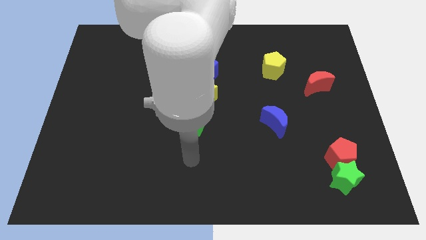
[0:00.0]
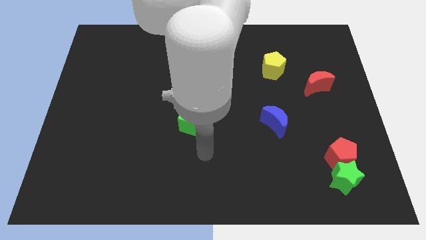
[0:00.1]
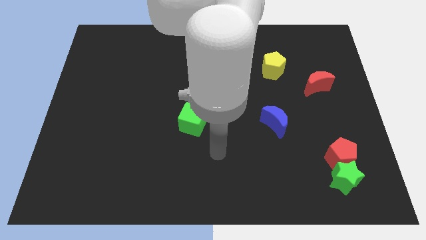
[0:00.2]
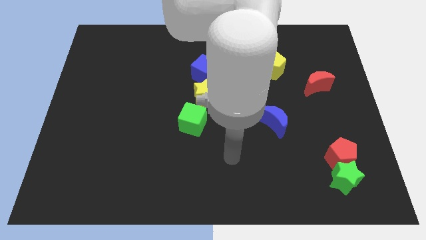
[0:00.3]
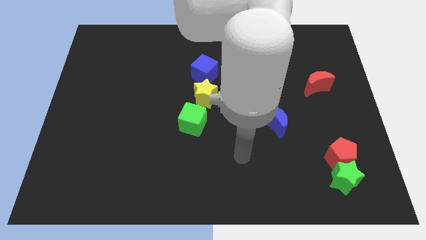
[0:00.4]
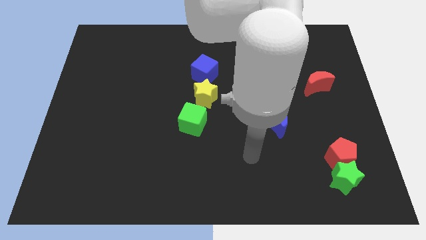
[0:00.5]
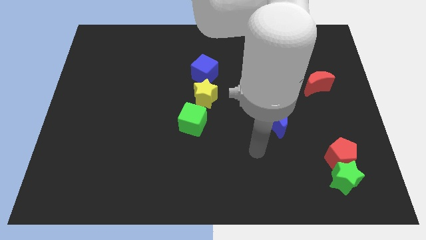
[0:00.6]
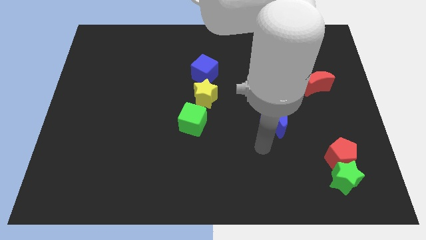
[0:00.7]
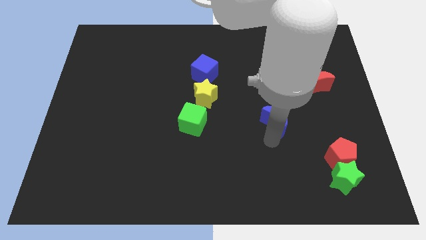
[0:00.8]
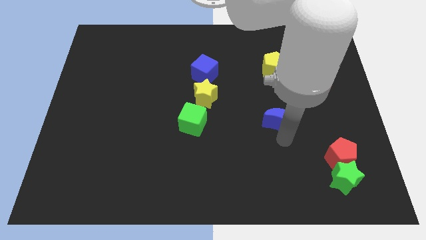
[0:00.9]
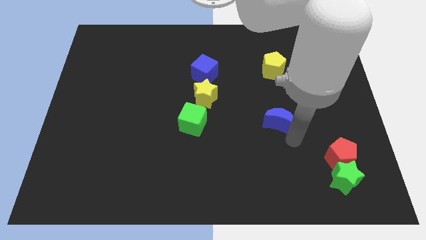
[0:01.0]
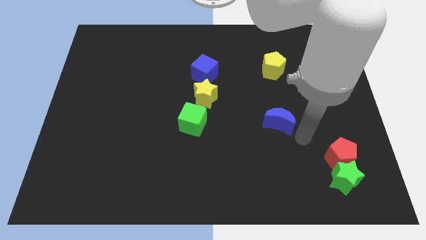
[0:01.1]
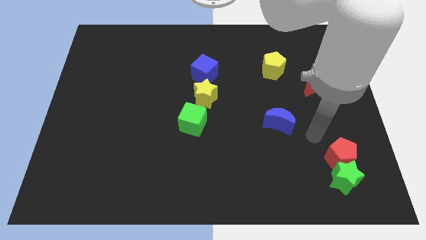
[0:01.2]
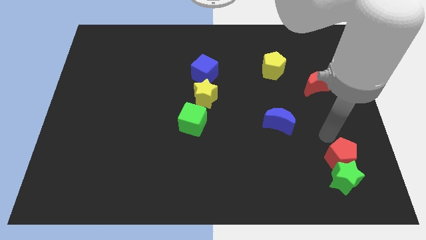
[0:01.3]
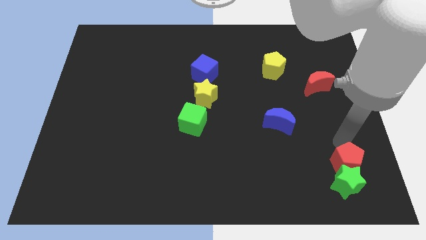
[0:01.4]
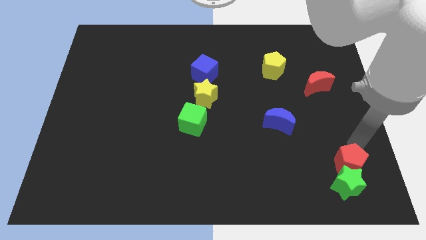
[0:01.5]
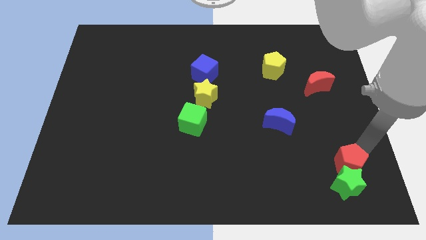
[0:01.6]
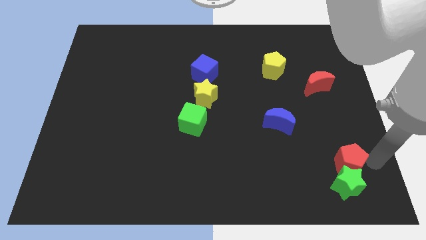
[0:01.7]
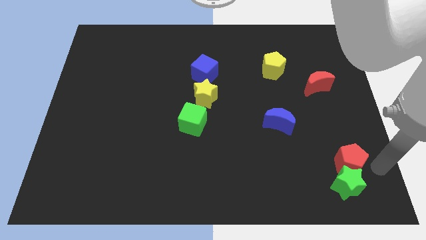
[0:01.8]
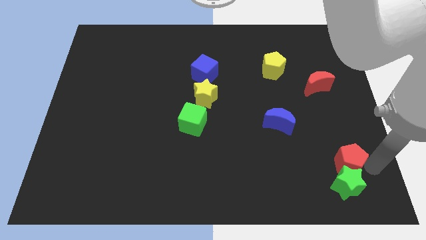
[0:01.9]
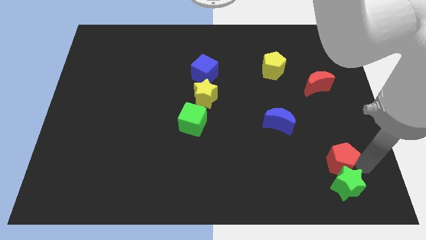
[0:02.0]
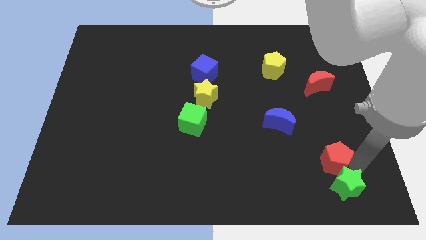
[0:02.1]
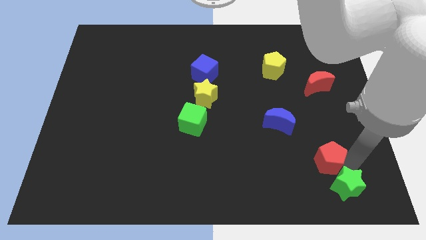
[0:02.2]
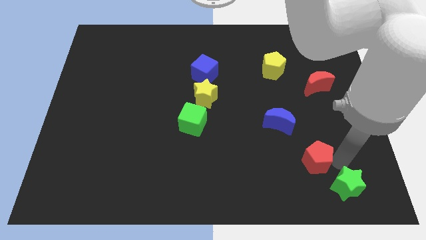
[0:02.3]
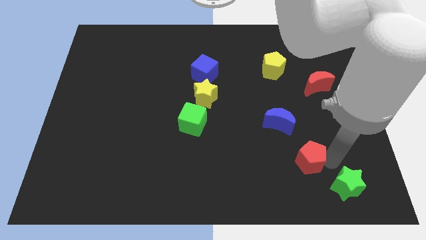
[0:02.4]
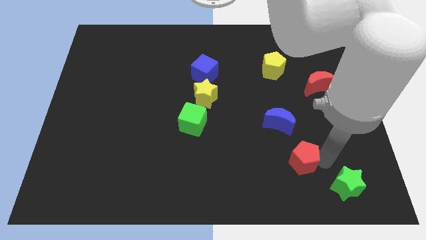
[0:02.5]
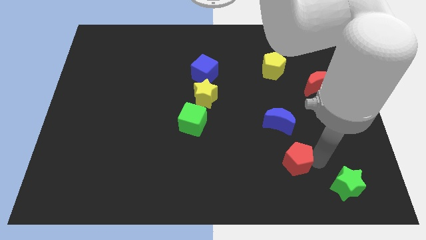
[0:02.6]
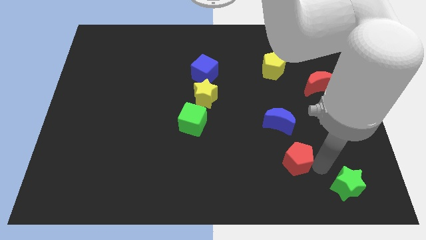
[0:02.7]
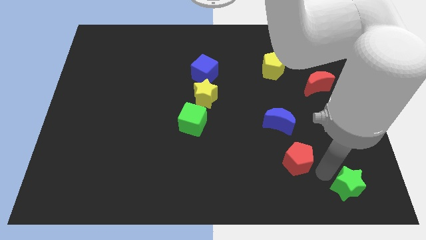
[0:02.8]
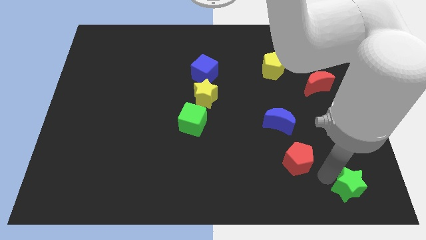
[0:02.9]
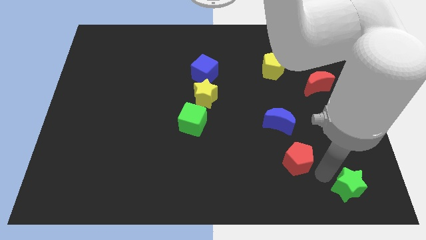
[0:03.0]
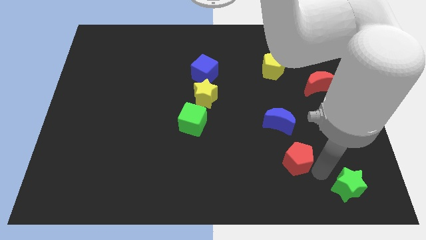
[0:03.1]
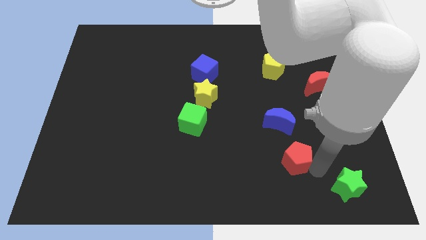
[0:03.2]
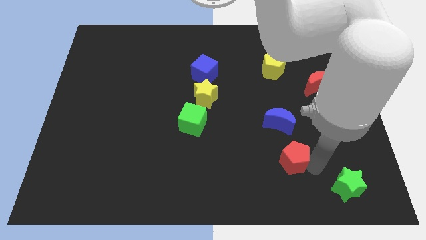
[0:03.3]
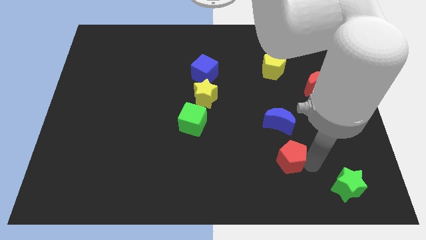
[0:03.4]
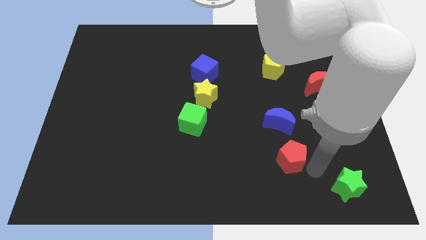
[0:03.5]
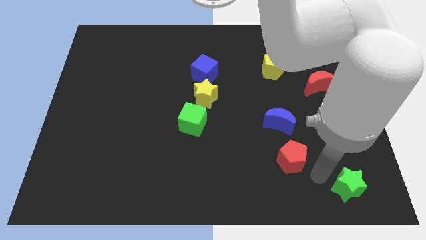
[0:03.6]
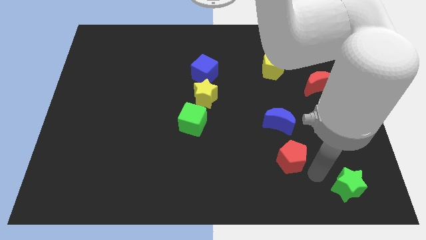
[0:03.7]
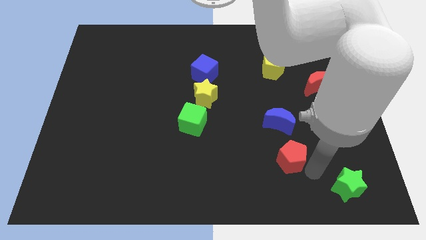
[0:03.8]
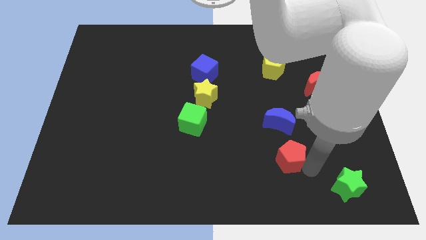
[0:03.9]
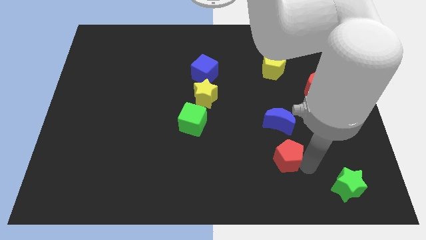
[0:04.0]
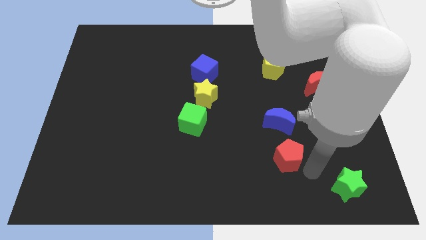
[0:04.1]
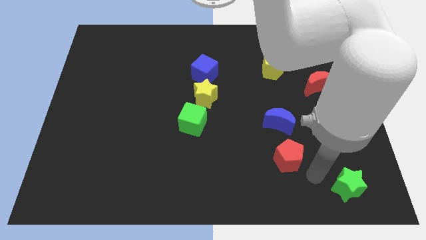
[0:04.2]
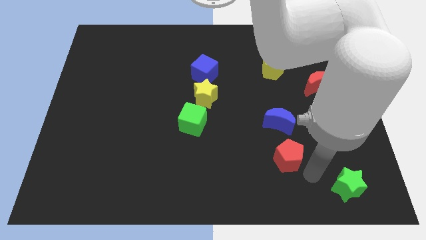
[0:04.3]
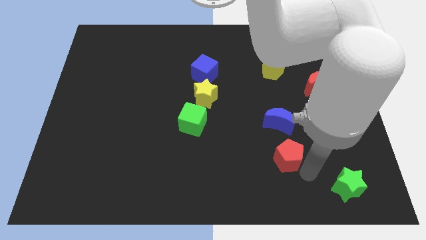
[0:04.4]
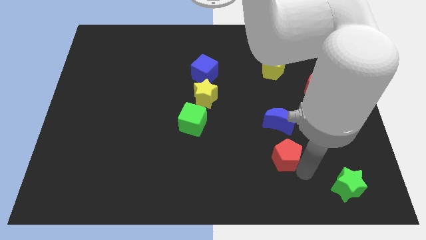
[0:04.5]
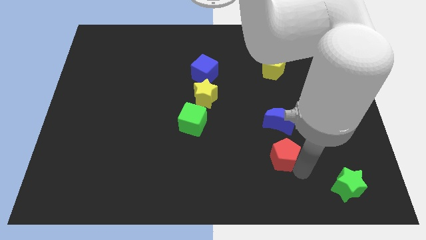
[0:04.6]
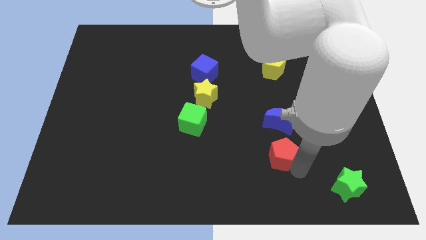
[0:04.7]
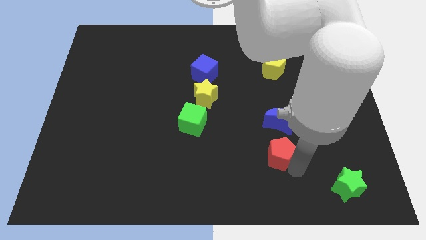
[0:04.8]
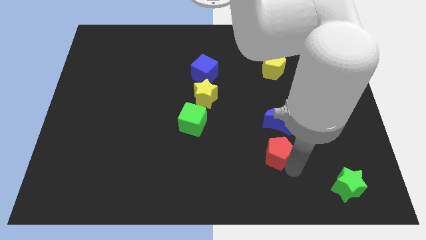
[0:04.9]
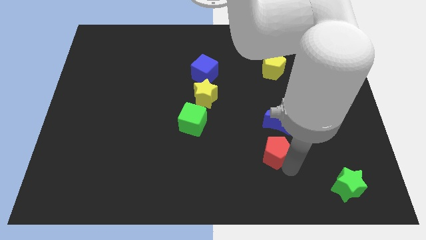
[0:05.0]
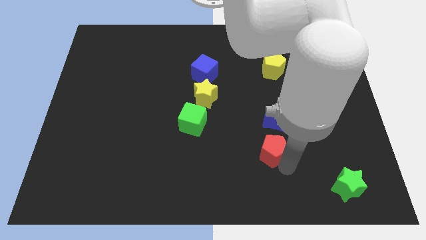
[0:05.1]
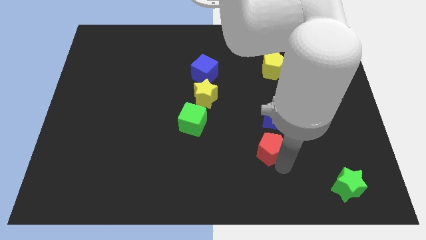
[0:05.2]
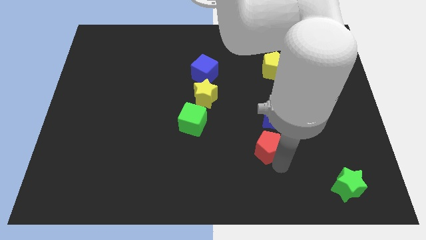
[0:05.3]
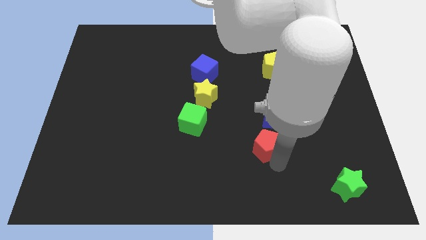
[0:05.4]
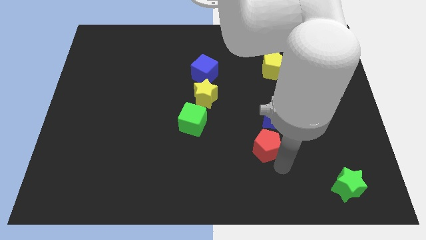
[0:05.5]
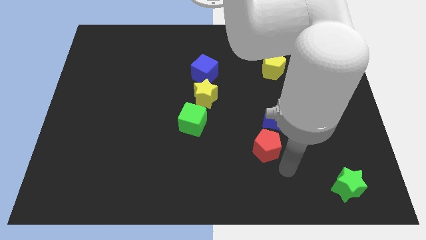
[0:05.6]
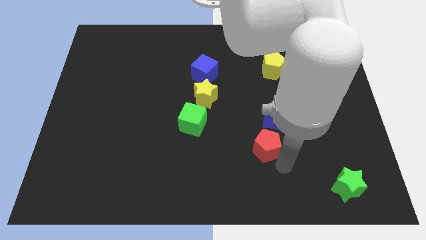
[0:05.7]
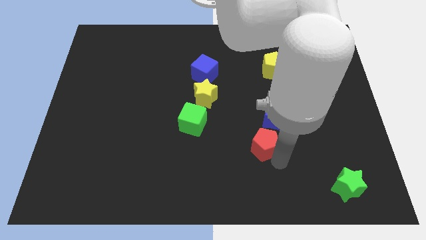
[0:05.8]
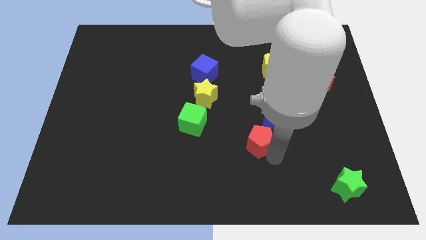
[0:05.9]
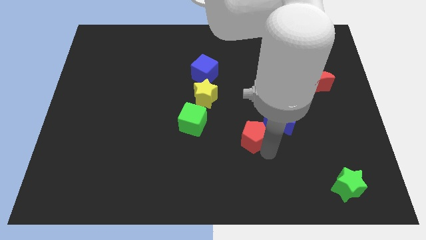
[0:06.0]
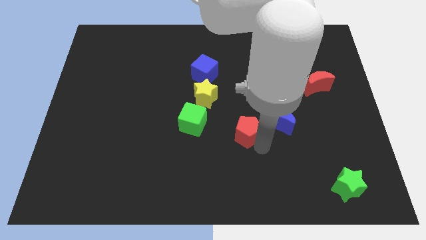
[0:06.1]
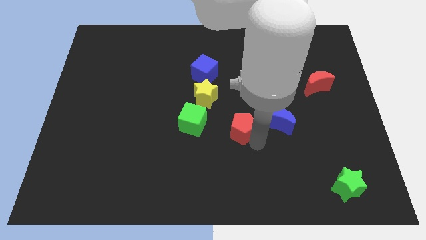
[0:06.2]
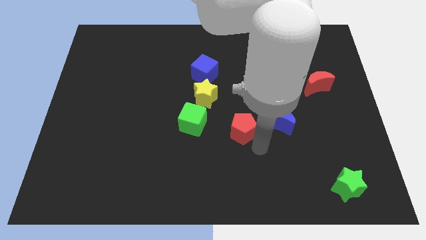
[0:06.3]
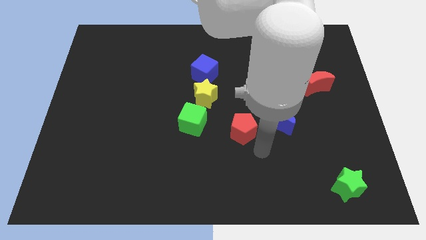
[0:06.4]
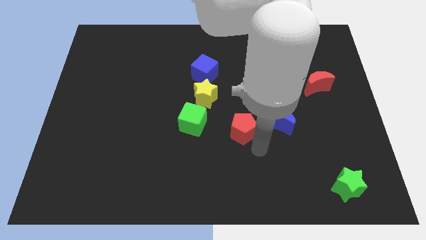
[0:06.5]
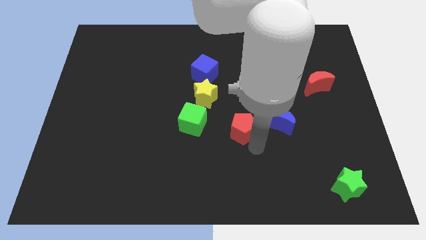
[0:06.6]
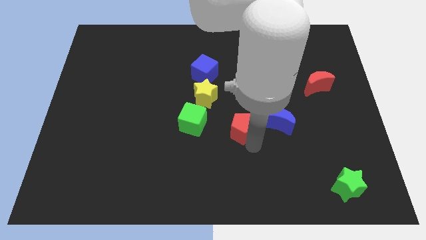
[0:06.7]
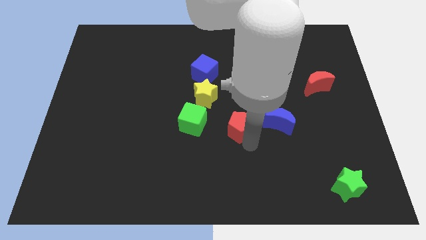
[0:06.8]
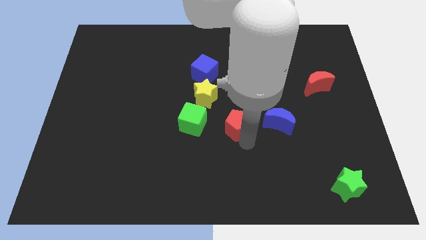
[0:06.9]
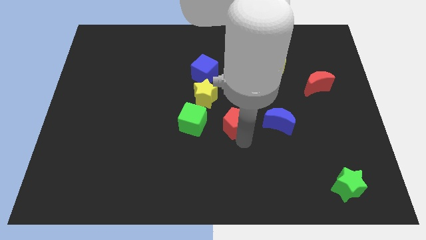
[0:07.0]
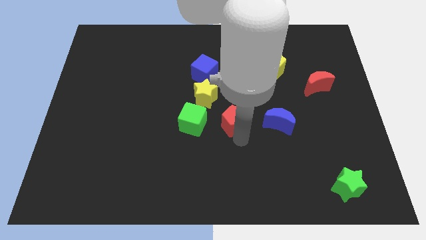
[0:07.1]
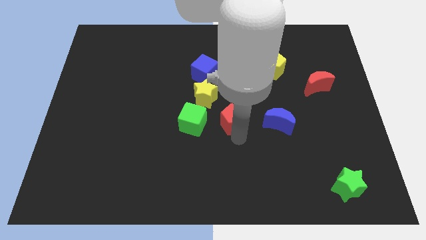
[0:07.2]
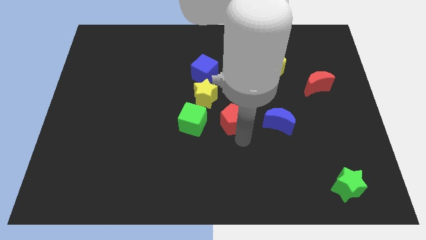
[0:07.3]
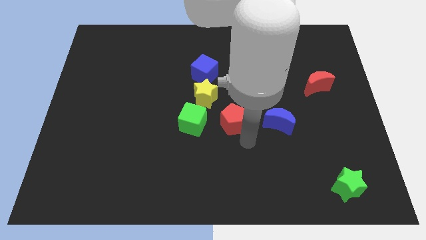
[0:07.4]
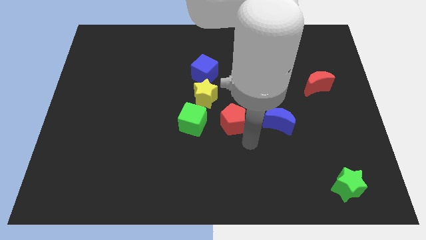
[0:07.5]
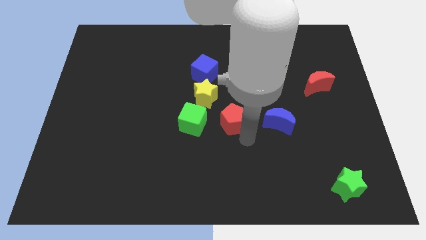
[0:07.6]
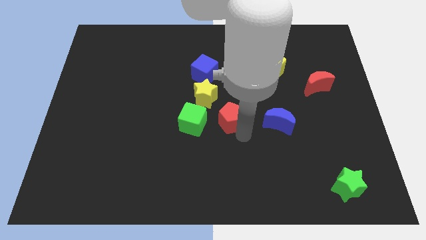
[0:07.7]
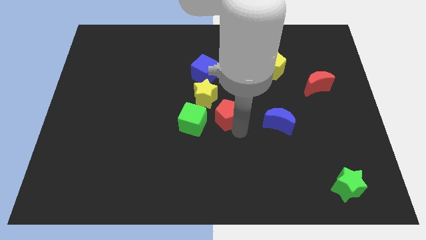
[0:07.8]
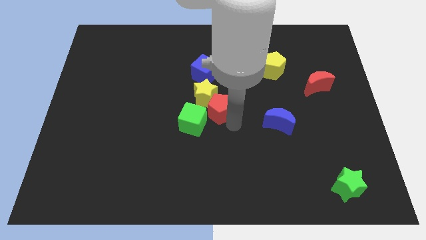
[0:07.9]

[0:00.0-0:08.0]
slide the red pentagon next to the yellow star
